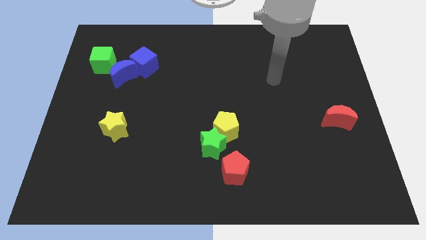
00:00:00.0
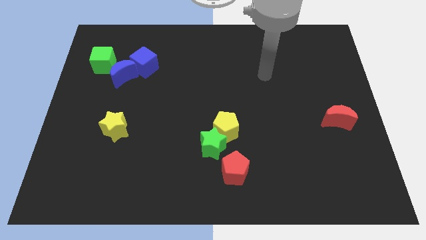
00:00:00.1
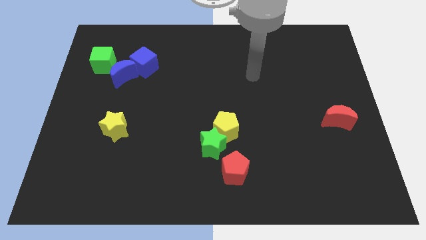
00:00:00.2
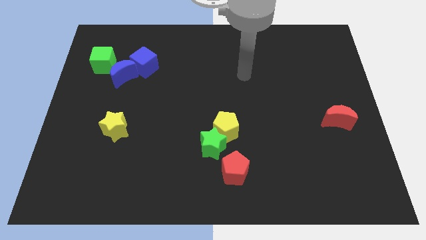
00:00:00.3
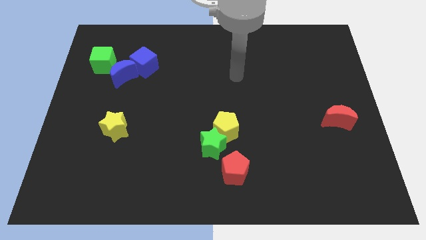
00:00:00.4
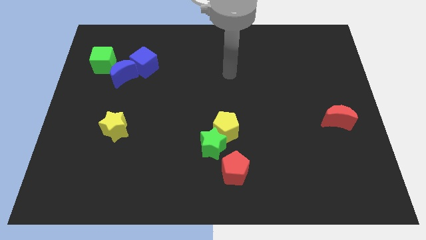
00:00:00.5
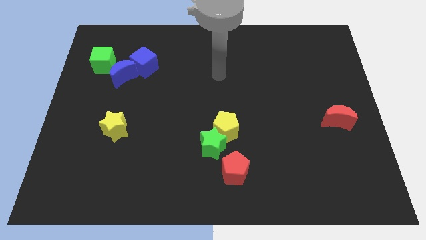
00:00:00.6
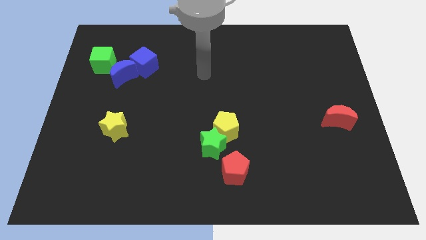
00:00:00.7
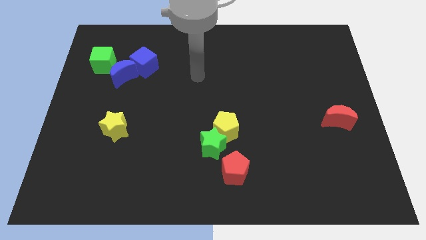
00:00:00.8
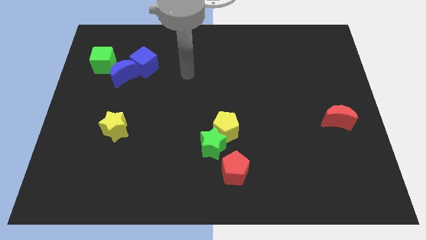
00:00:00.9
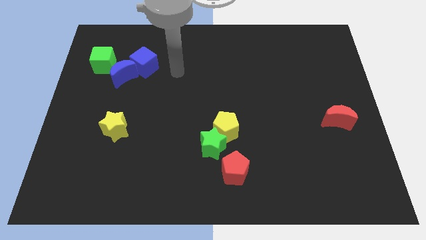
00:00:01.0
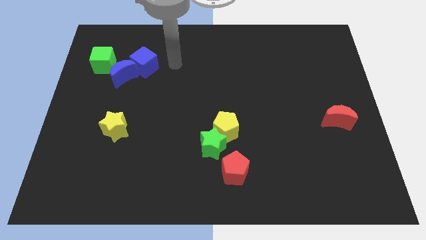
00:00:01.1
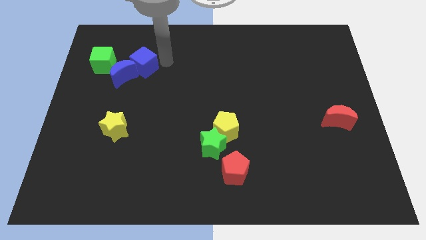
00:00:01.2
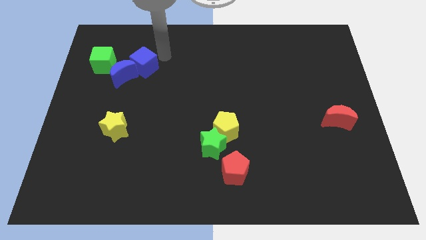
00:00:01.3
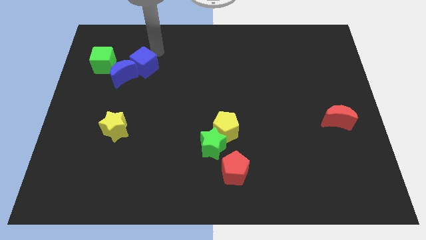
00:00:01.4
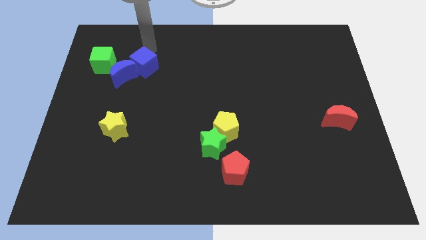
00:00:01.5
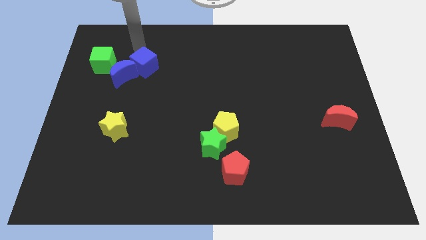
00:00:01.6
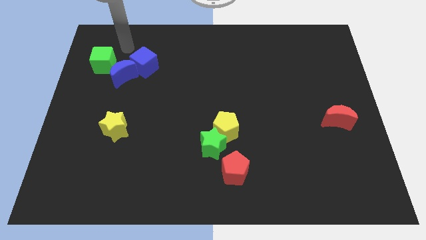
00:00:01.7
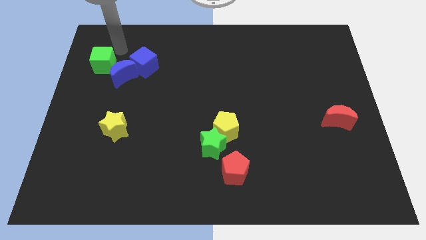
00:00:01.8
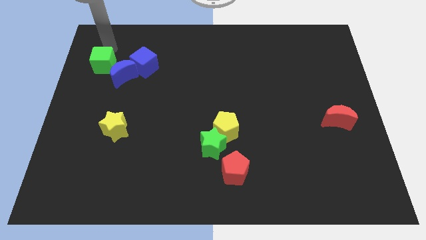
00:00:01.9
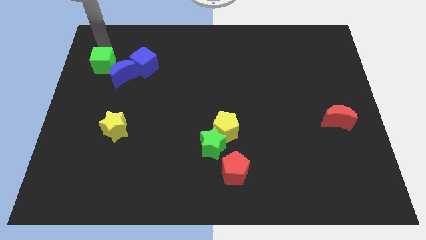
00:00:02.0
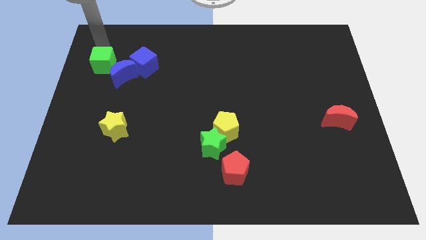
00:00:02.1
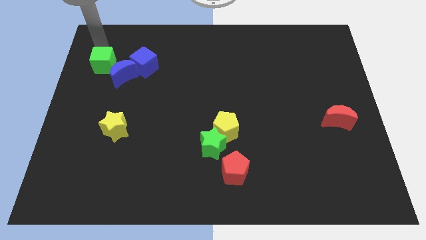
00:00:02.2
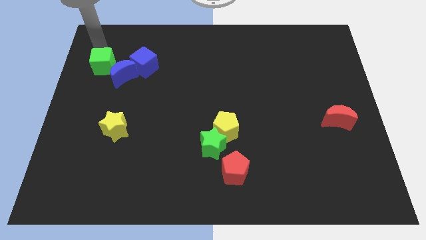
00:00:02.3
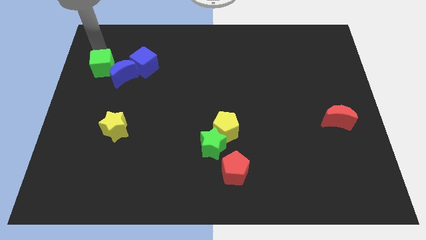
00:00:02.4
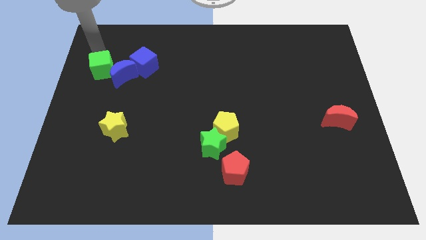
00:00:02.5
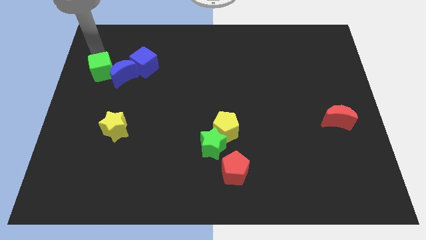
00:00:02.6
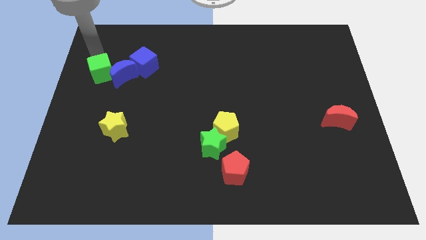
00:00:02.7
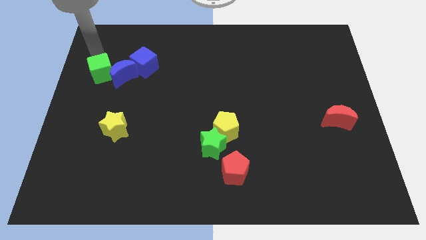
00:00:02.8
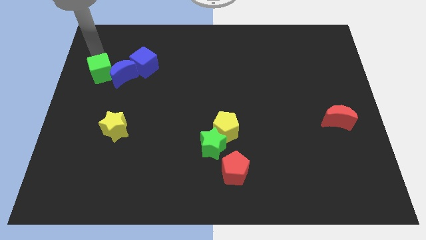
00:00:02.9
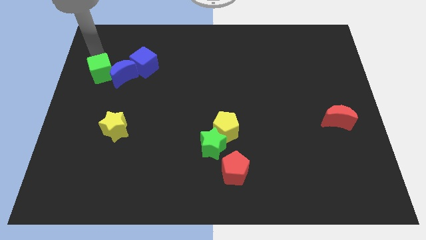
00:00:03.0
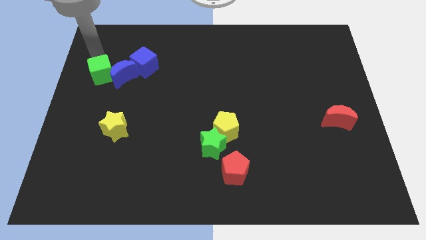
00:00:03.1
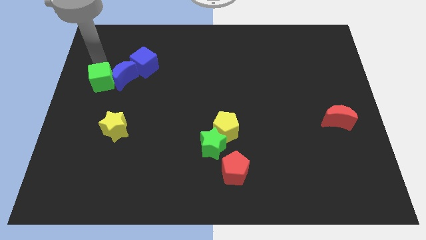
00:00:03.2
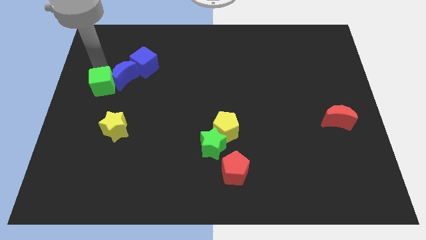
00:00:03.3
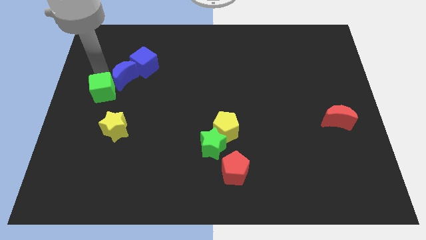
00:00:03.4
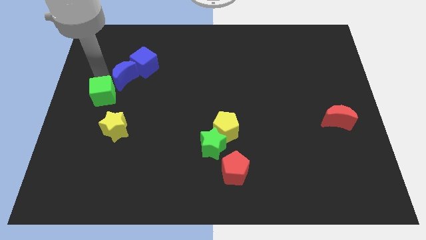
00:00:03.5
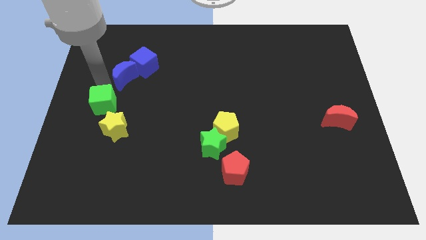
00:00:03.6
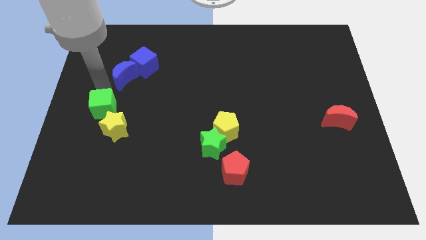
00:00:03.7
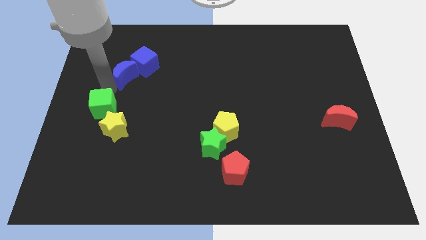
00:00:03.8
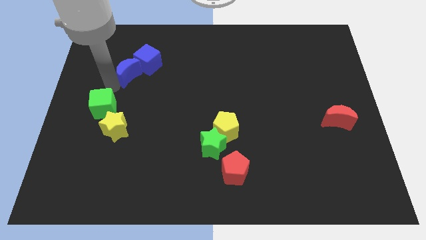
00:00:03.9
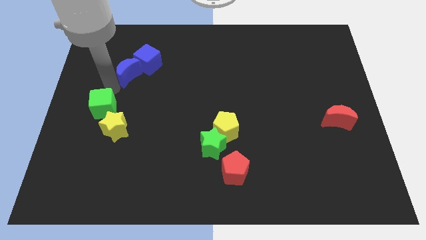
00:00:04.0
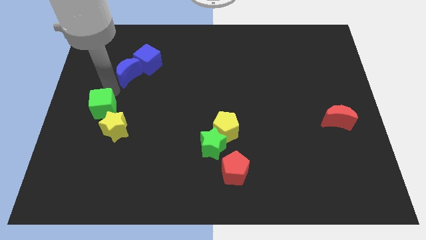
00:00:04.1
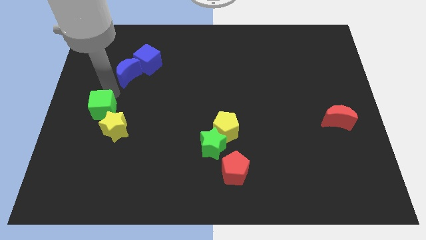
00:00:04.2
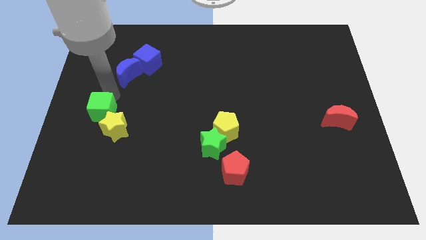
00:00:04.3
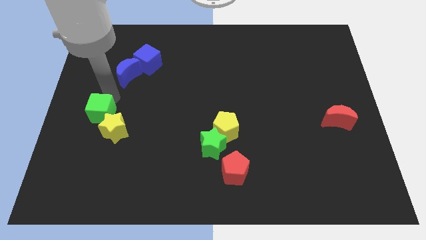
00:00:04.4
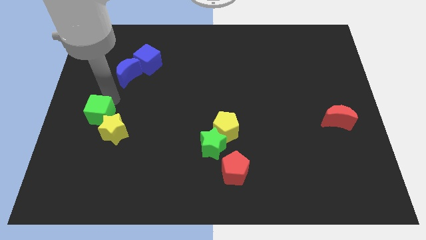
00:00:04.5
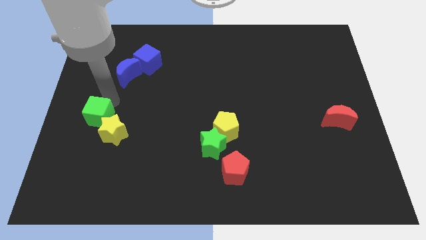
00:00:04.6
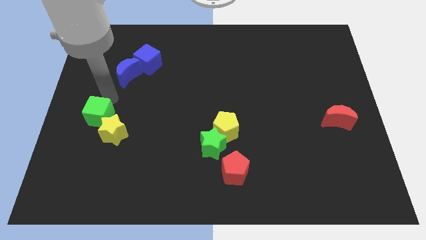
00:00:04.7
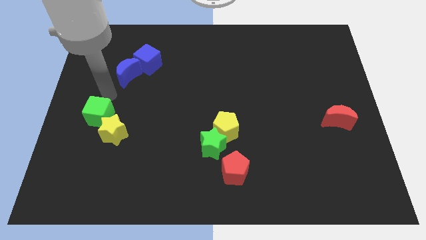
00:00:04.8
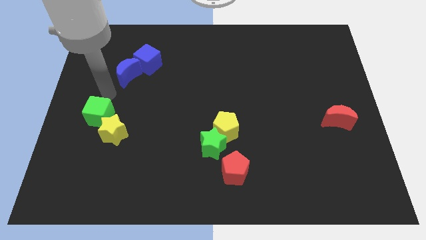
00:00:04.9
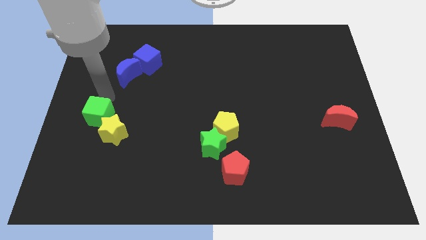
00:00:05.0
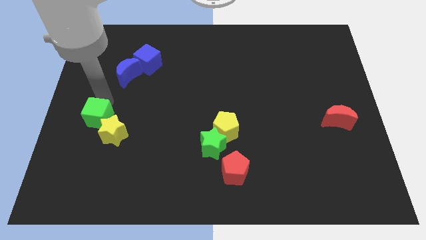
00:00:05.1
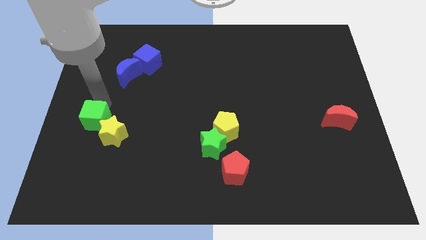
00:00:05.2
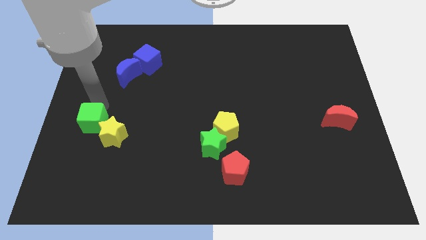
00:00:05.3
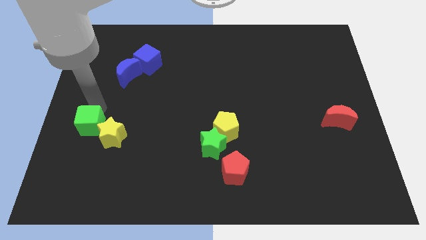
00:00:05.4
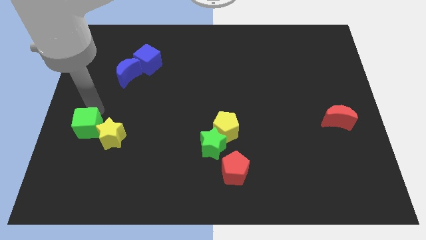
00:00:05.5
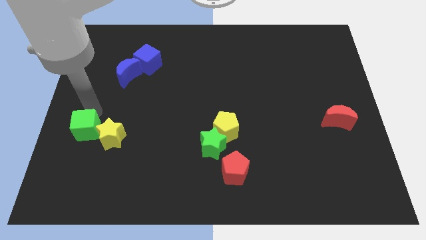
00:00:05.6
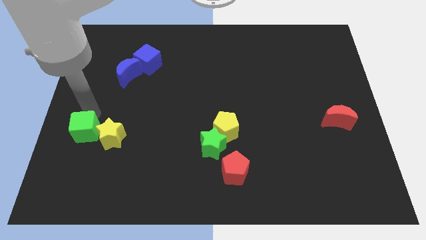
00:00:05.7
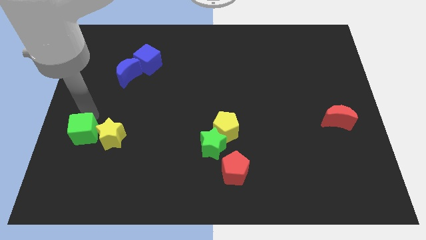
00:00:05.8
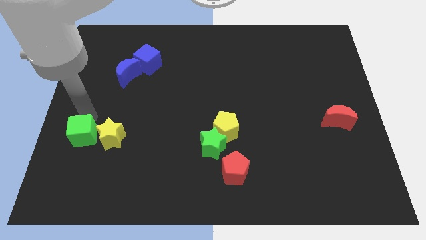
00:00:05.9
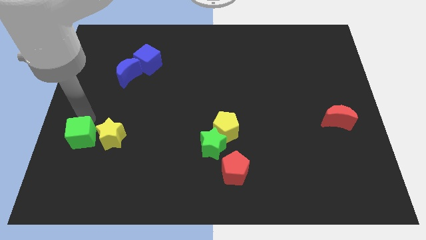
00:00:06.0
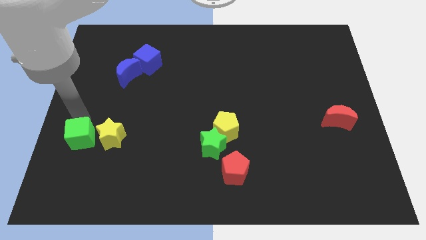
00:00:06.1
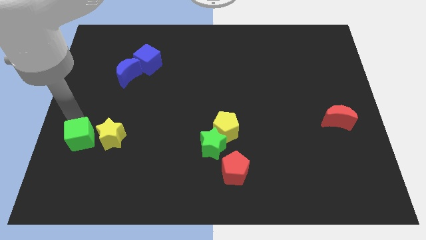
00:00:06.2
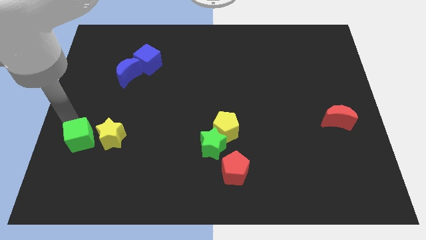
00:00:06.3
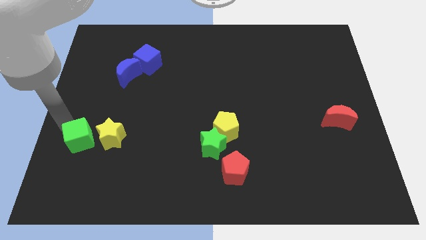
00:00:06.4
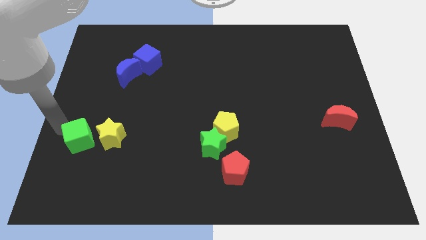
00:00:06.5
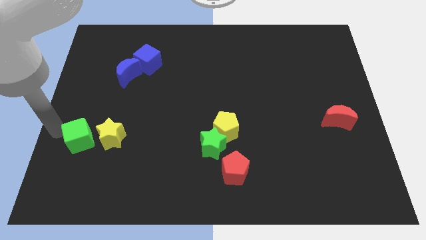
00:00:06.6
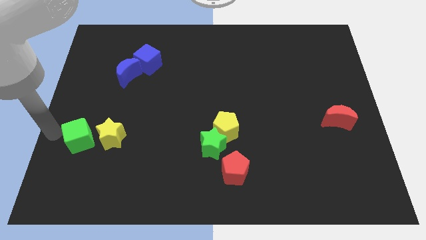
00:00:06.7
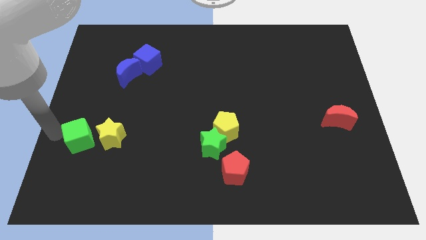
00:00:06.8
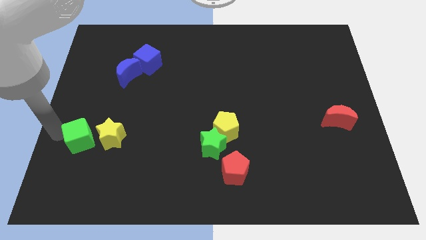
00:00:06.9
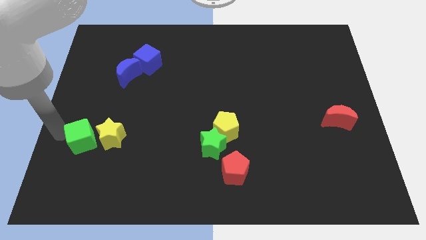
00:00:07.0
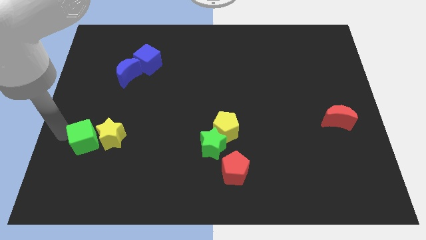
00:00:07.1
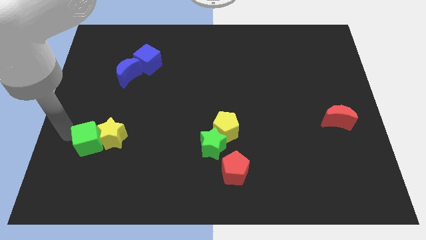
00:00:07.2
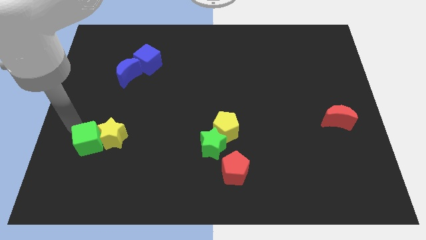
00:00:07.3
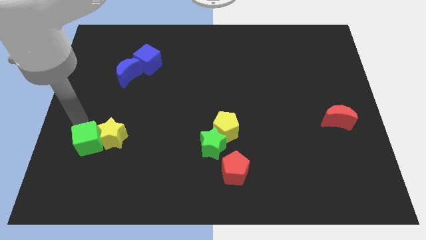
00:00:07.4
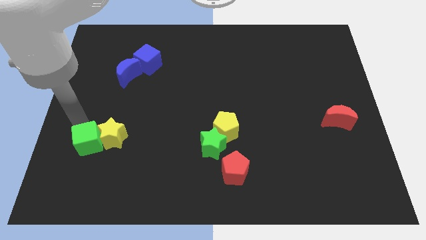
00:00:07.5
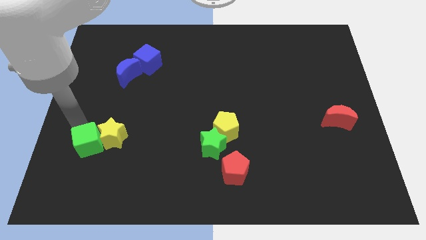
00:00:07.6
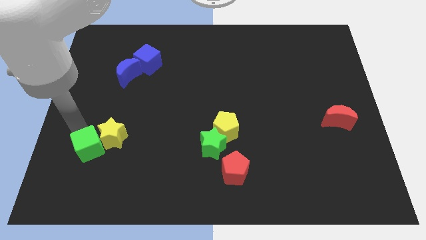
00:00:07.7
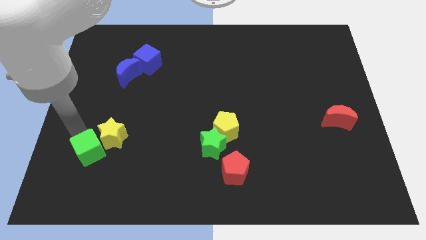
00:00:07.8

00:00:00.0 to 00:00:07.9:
put the green cube to the bottom of the yellow star
